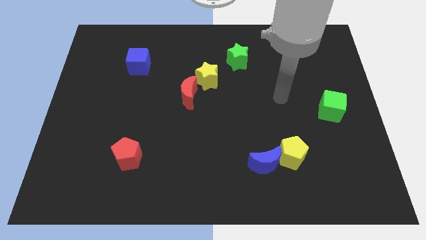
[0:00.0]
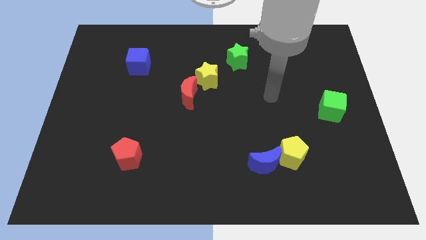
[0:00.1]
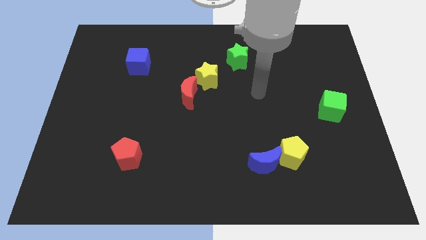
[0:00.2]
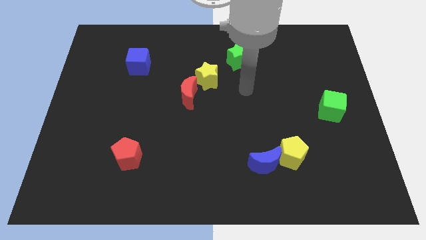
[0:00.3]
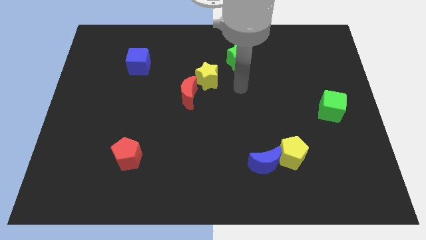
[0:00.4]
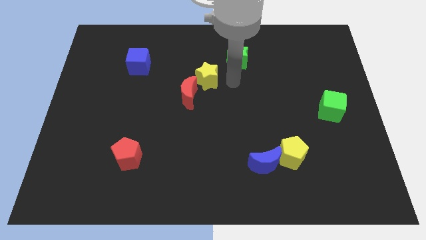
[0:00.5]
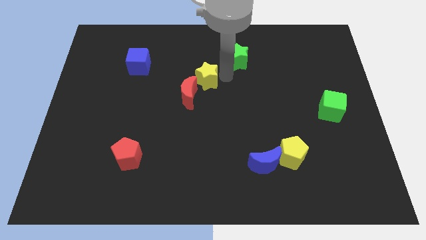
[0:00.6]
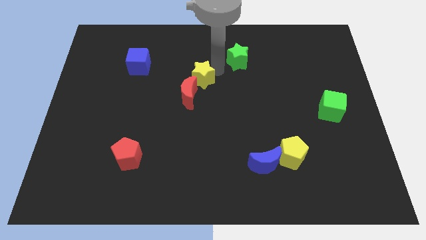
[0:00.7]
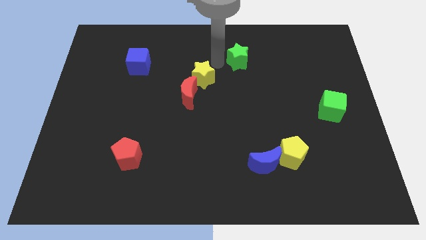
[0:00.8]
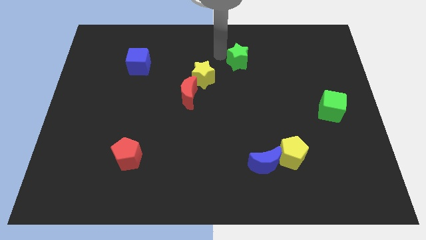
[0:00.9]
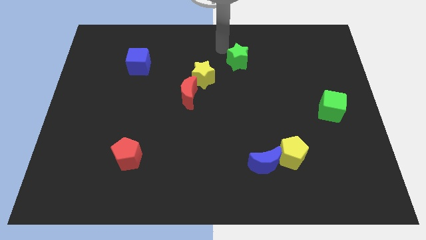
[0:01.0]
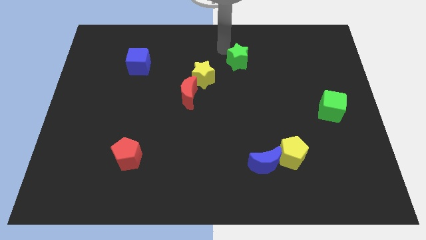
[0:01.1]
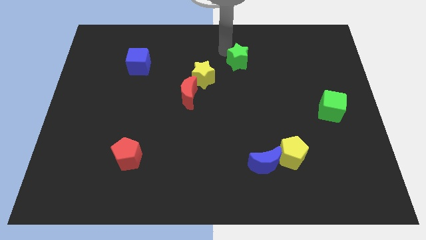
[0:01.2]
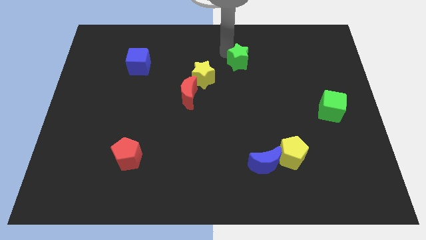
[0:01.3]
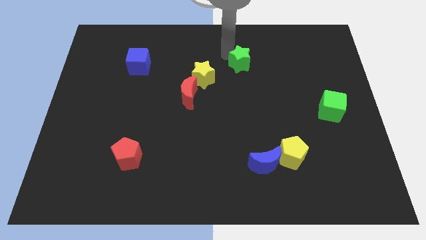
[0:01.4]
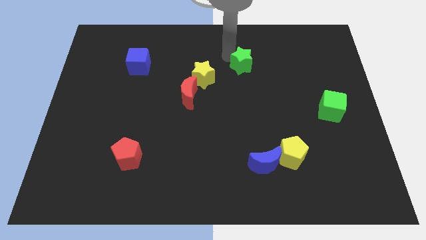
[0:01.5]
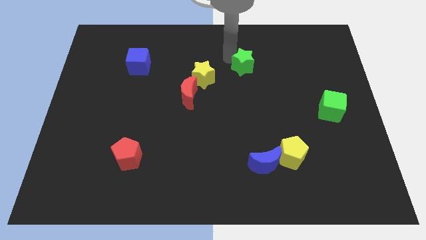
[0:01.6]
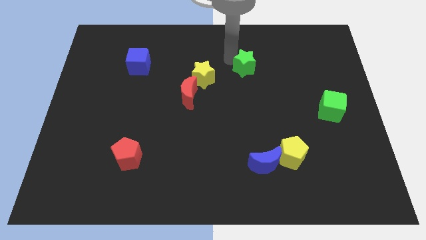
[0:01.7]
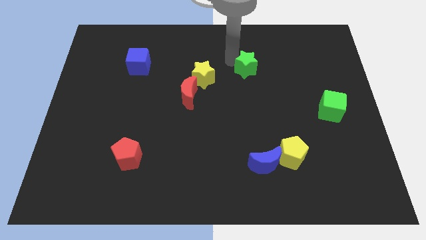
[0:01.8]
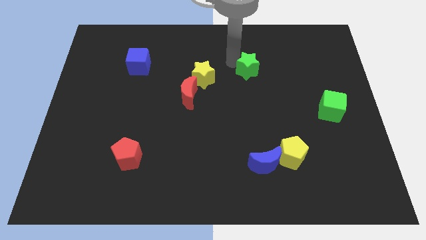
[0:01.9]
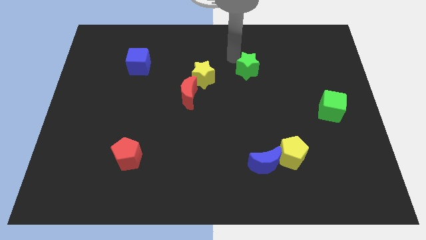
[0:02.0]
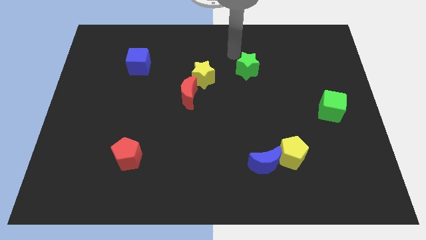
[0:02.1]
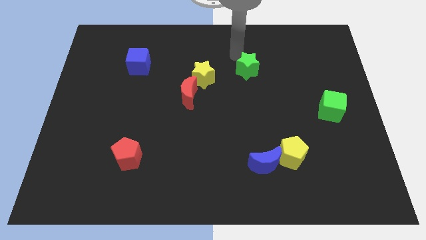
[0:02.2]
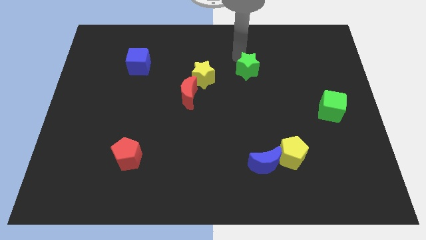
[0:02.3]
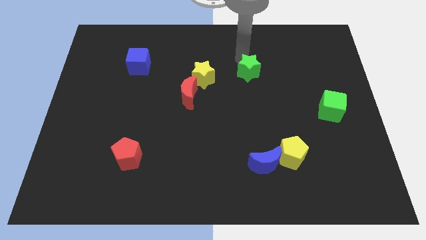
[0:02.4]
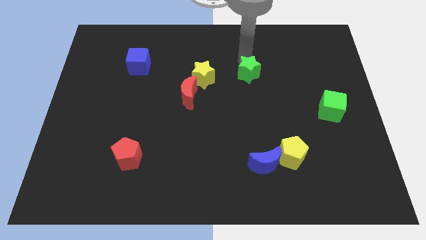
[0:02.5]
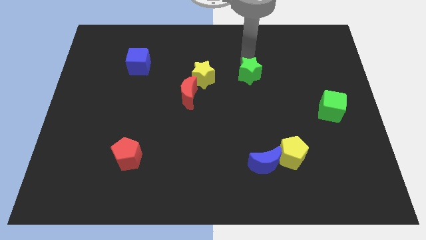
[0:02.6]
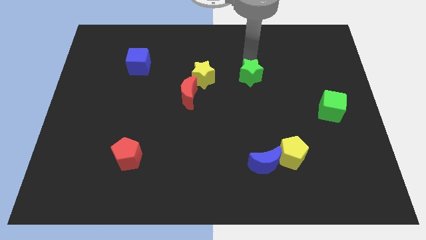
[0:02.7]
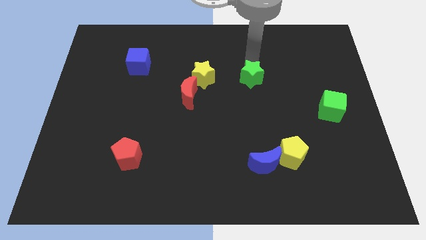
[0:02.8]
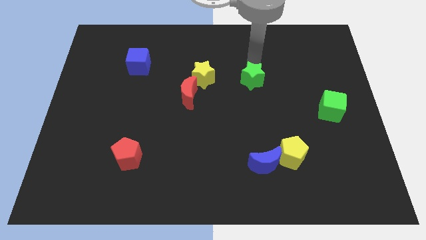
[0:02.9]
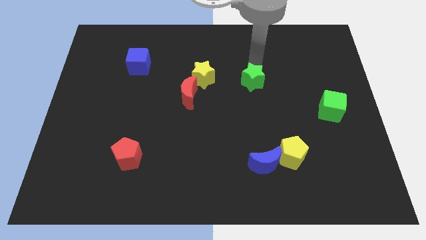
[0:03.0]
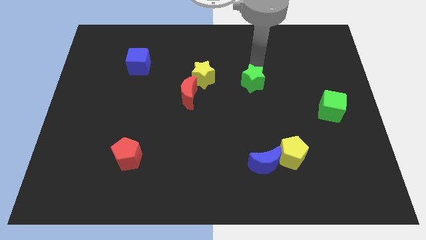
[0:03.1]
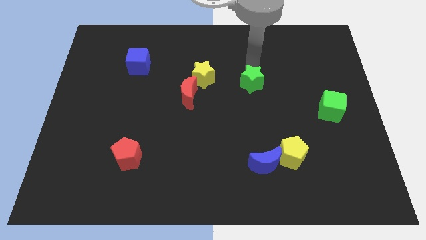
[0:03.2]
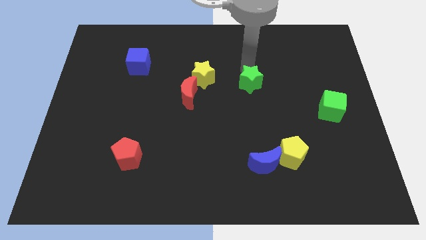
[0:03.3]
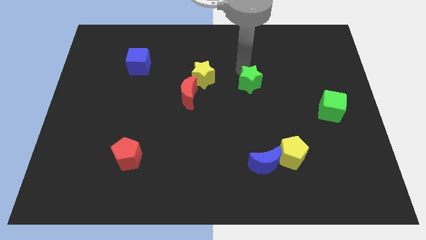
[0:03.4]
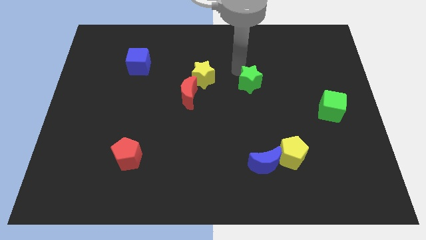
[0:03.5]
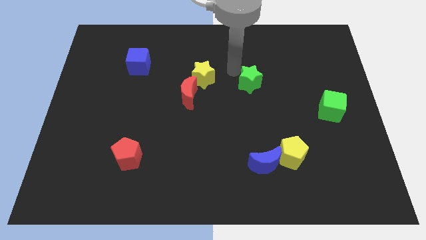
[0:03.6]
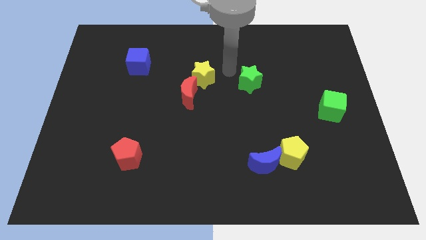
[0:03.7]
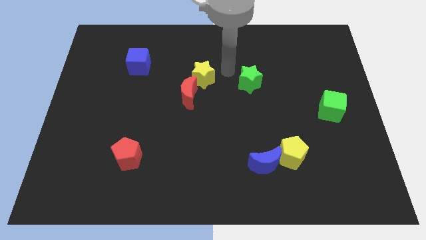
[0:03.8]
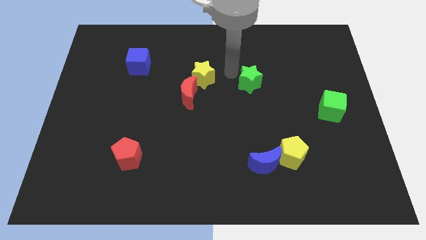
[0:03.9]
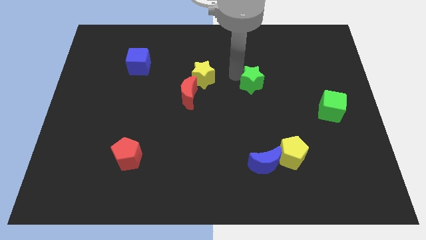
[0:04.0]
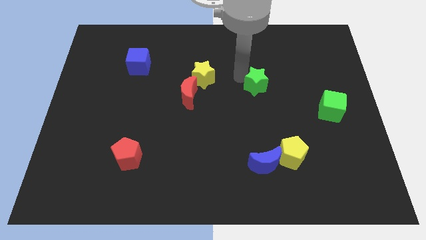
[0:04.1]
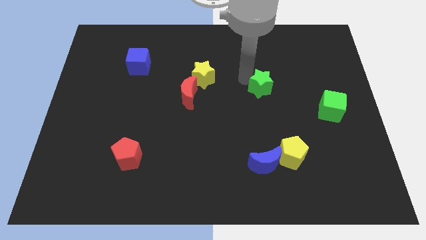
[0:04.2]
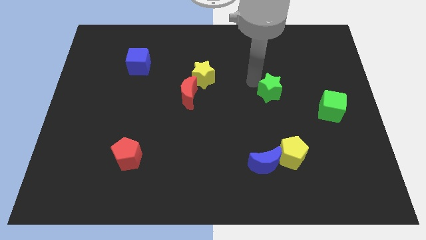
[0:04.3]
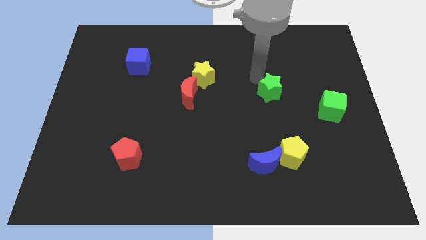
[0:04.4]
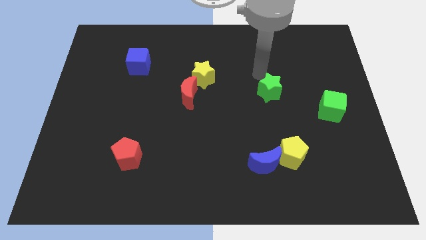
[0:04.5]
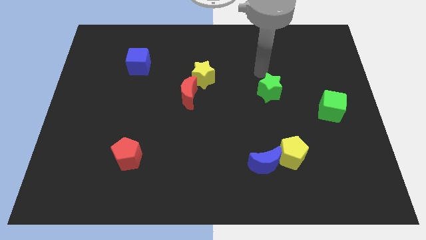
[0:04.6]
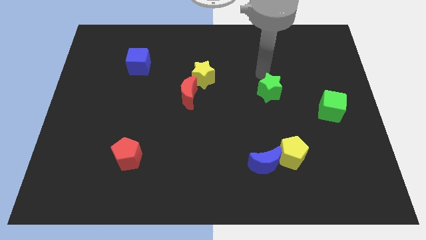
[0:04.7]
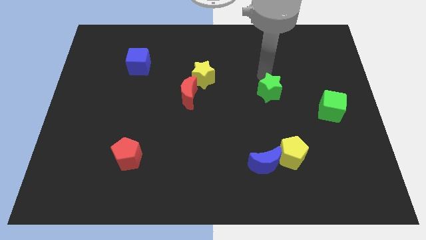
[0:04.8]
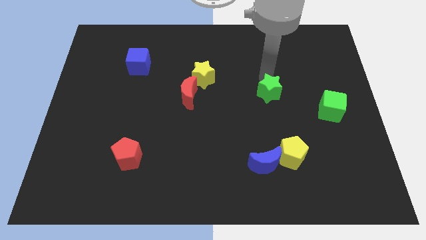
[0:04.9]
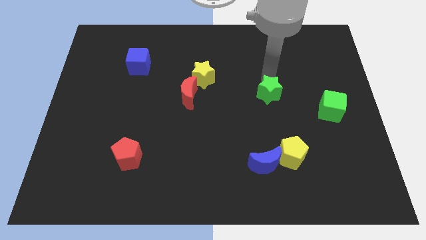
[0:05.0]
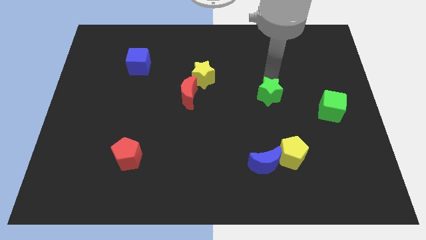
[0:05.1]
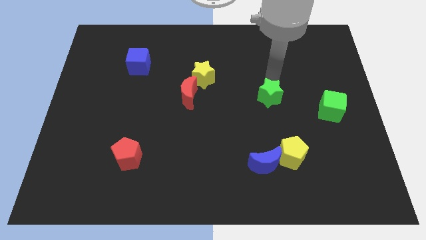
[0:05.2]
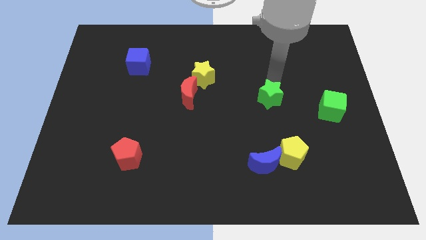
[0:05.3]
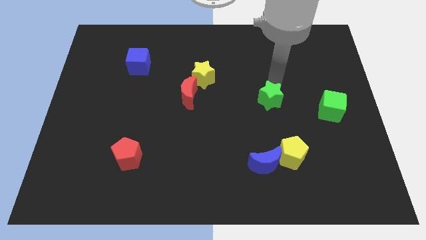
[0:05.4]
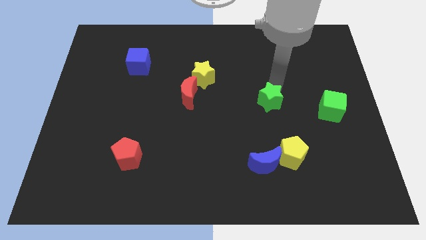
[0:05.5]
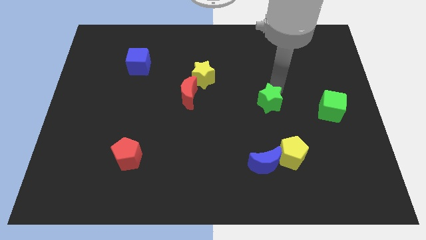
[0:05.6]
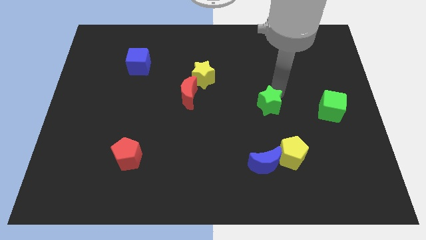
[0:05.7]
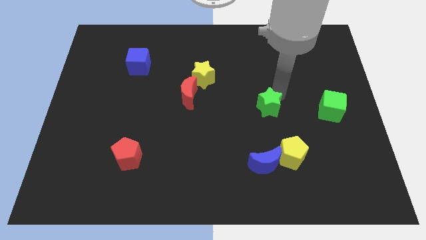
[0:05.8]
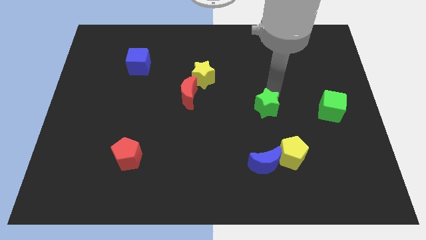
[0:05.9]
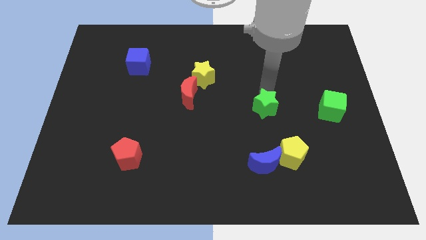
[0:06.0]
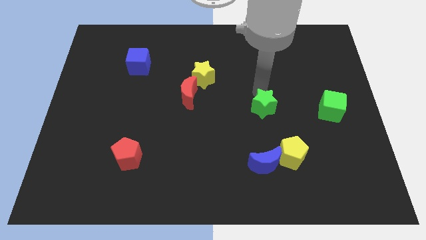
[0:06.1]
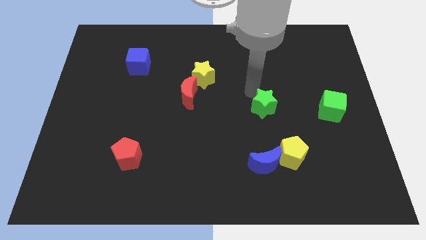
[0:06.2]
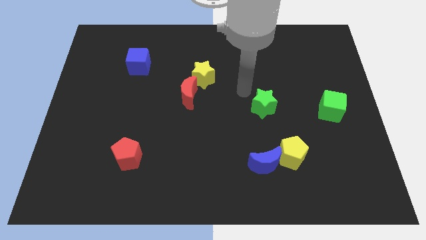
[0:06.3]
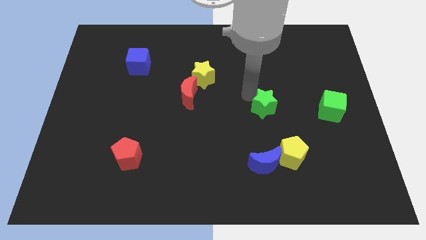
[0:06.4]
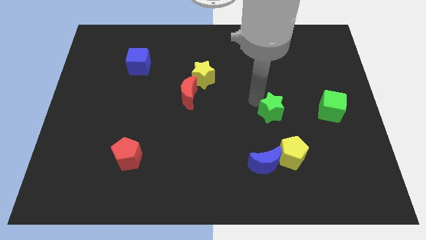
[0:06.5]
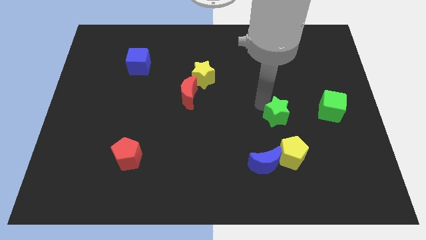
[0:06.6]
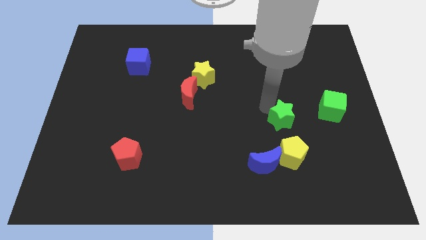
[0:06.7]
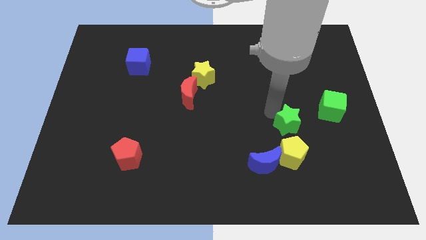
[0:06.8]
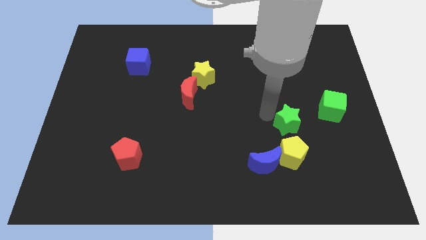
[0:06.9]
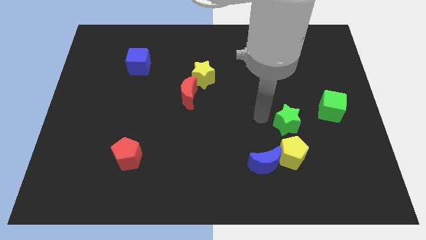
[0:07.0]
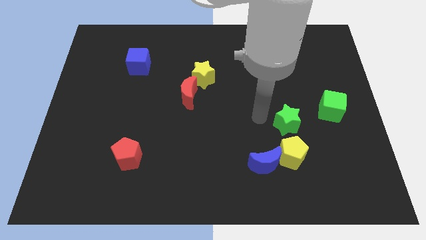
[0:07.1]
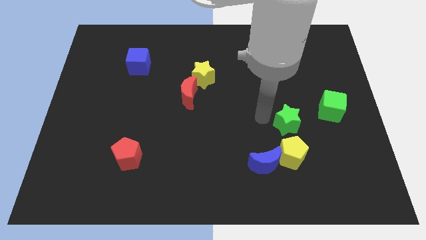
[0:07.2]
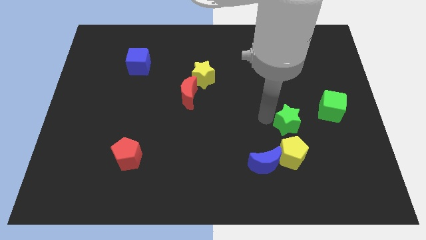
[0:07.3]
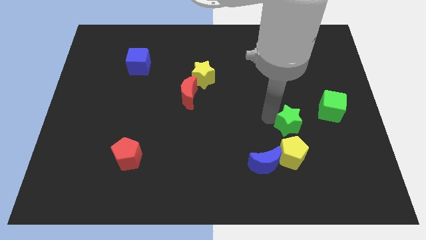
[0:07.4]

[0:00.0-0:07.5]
push the green star diagonally down and to the left of the green cube
